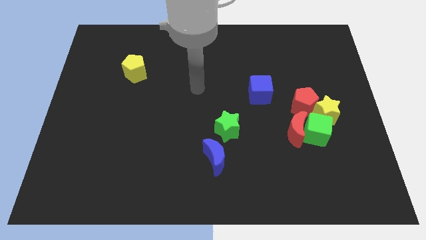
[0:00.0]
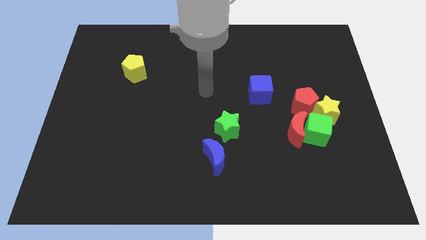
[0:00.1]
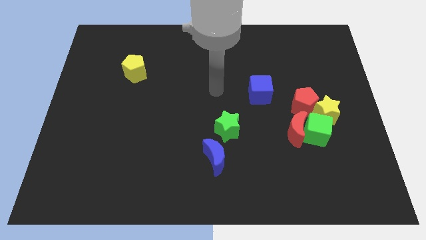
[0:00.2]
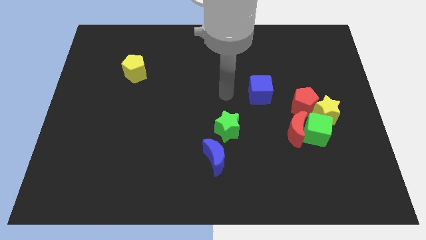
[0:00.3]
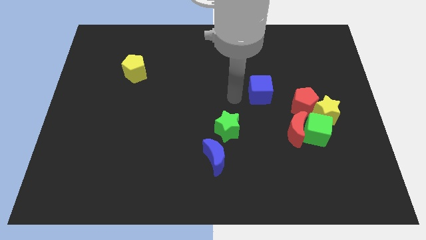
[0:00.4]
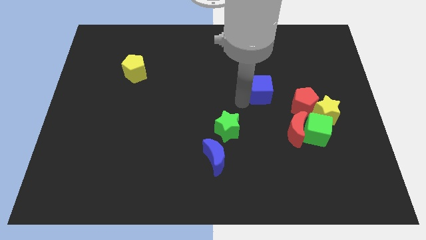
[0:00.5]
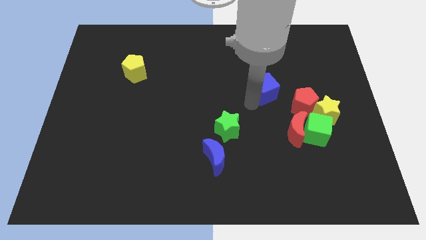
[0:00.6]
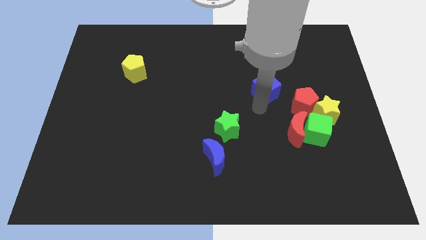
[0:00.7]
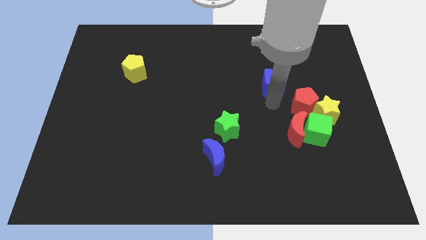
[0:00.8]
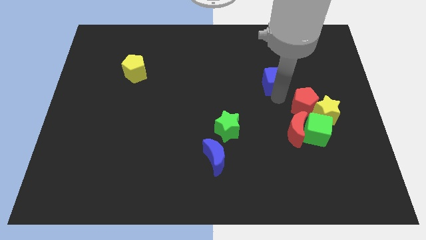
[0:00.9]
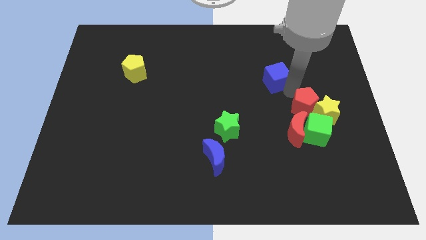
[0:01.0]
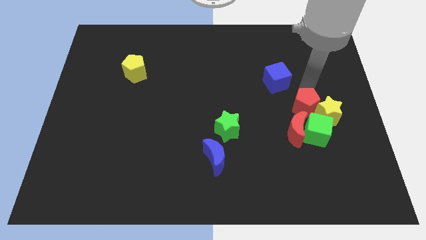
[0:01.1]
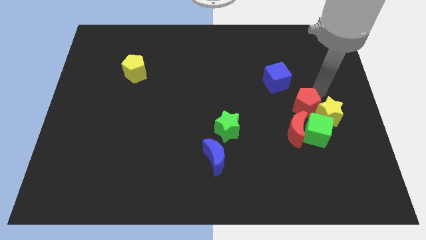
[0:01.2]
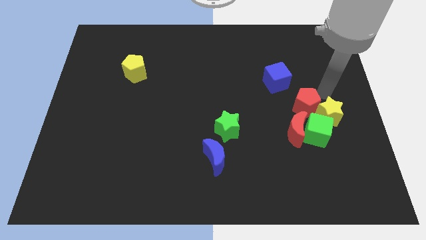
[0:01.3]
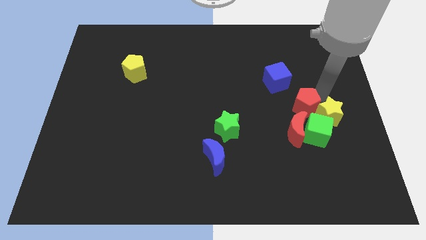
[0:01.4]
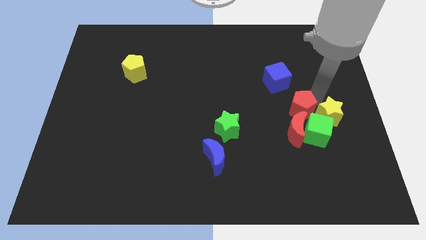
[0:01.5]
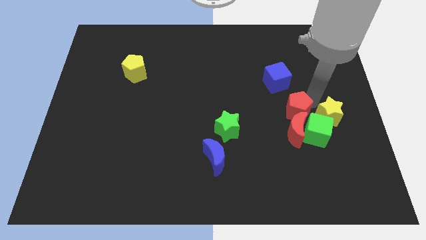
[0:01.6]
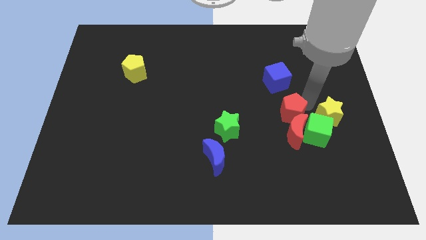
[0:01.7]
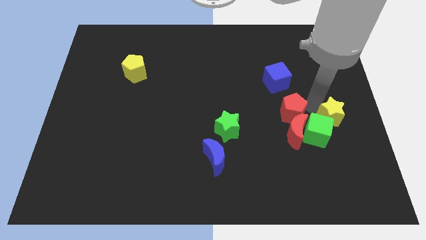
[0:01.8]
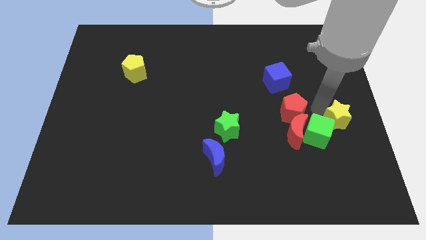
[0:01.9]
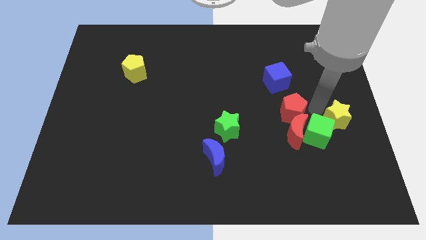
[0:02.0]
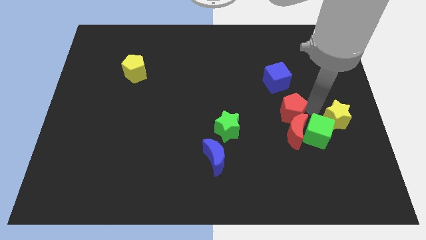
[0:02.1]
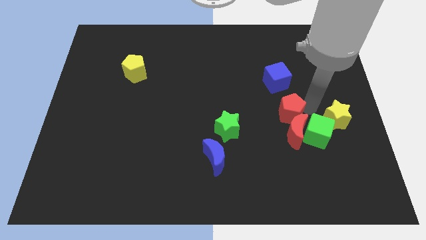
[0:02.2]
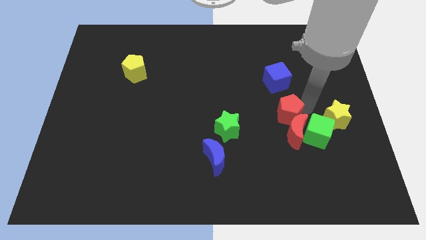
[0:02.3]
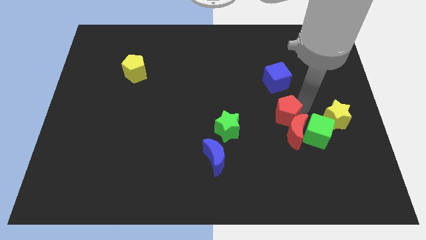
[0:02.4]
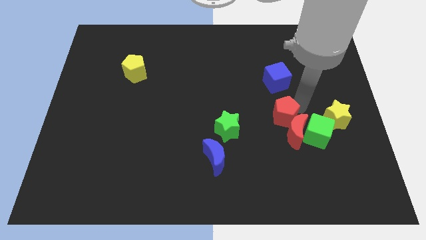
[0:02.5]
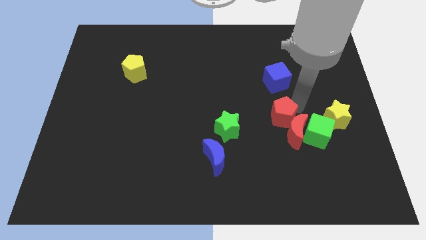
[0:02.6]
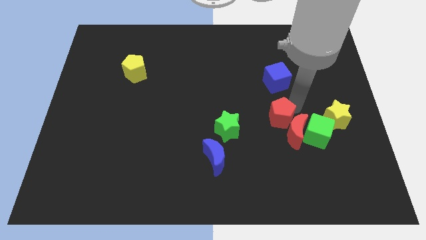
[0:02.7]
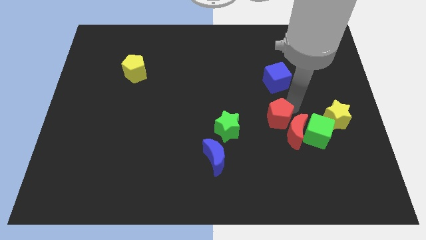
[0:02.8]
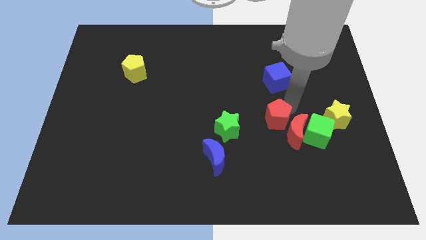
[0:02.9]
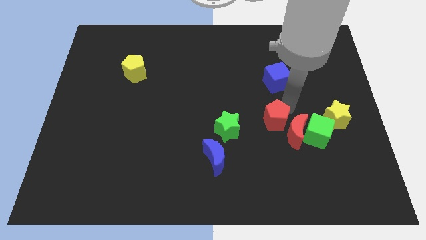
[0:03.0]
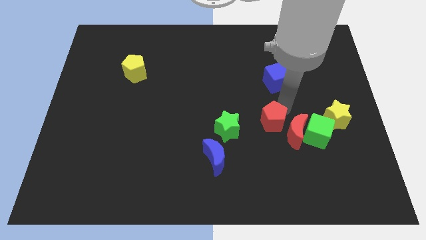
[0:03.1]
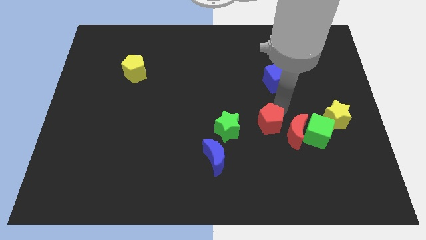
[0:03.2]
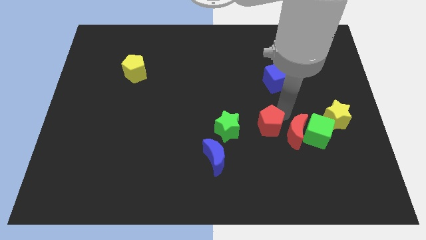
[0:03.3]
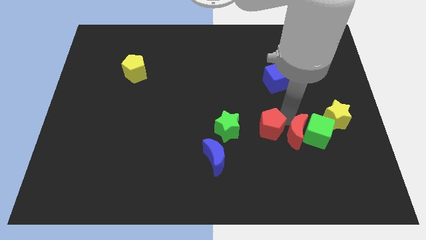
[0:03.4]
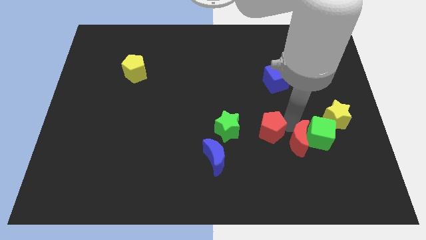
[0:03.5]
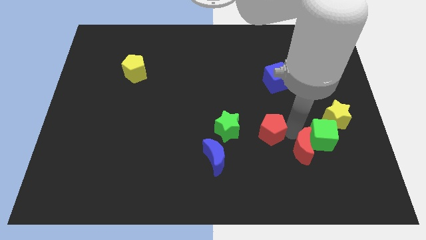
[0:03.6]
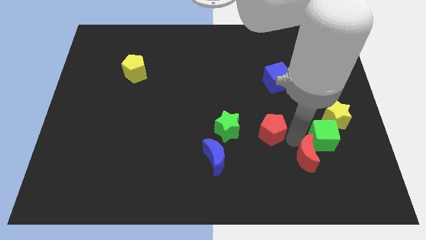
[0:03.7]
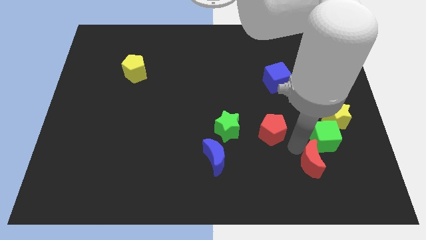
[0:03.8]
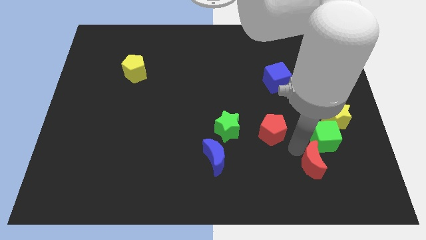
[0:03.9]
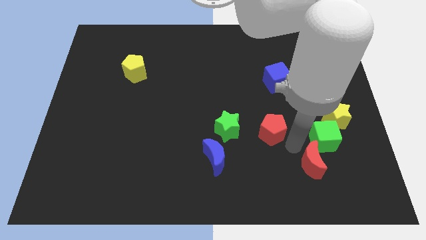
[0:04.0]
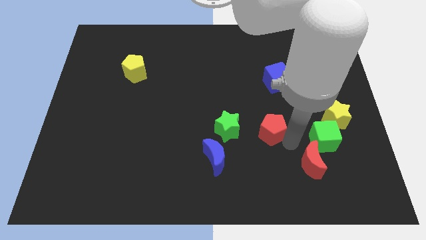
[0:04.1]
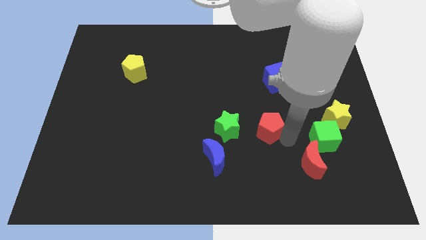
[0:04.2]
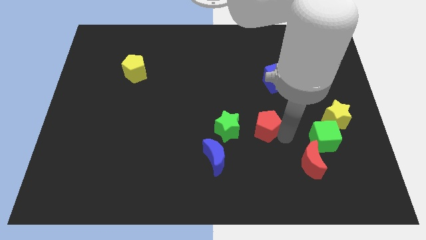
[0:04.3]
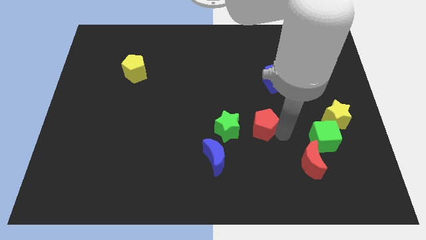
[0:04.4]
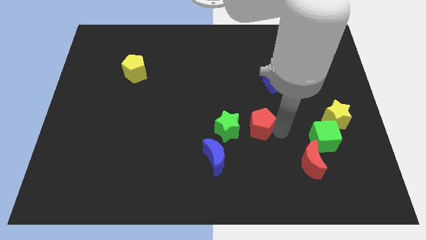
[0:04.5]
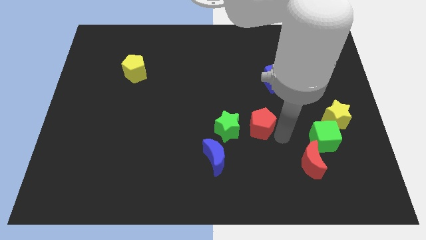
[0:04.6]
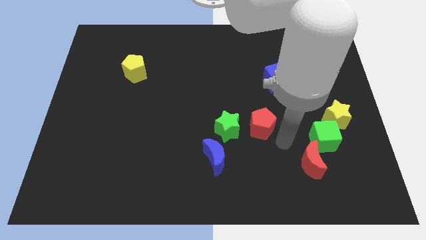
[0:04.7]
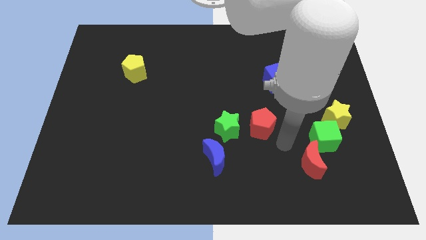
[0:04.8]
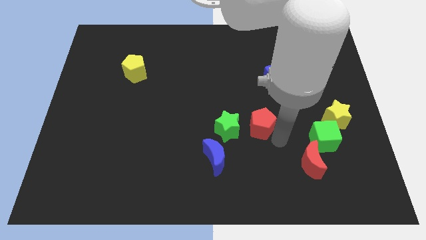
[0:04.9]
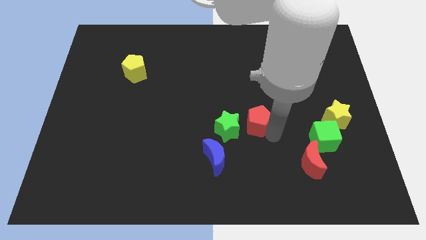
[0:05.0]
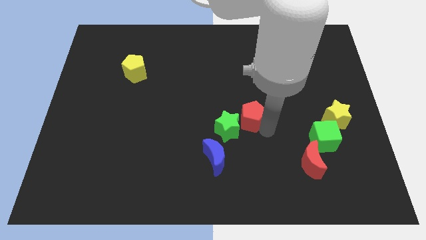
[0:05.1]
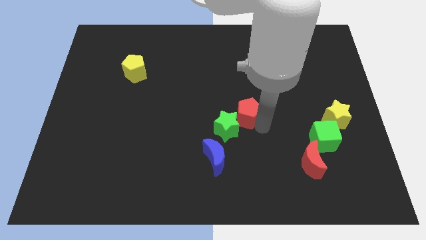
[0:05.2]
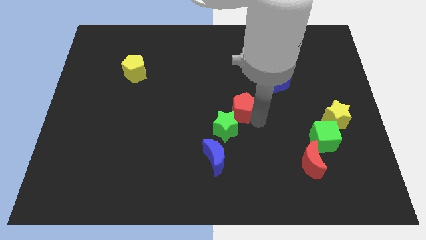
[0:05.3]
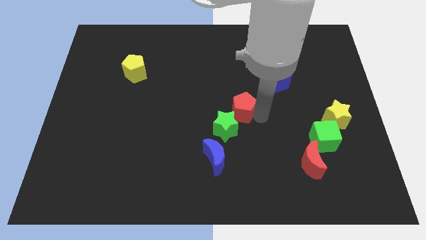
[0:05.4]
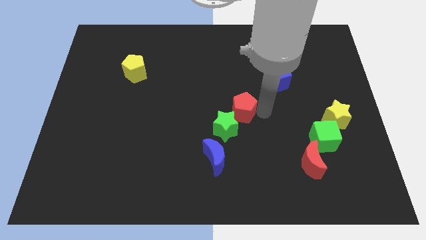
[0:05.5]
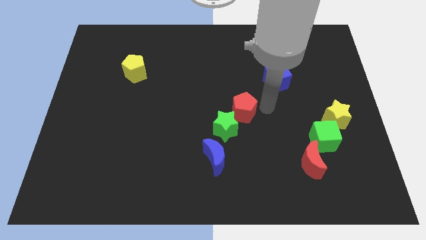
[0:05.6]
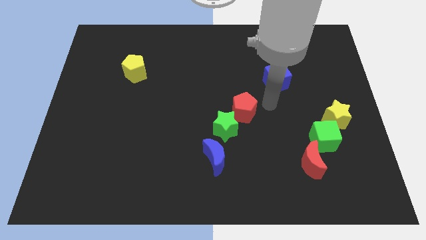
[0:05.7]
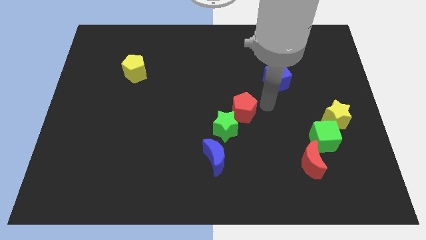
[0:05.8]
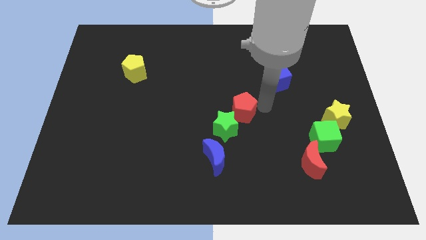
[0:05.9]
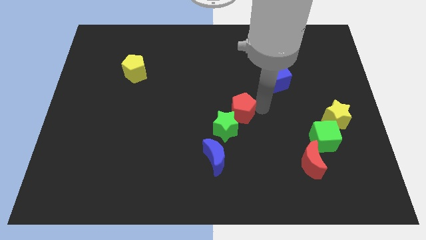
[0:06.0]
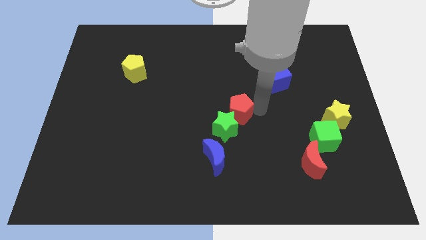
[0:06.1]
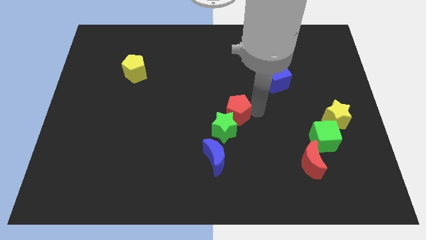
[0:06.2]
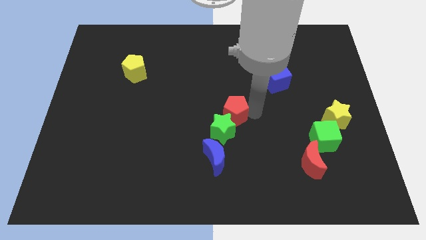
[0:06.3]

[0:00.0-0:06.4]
push the red pentagon to the top side of the blue moon

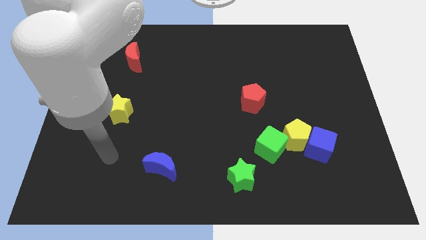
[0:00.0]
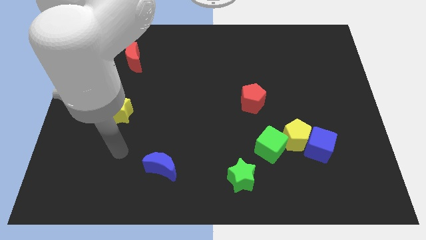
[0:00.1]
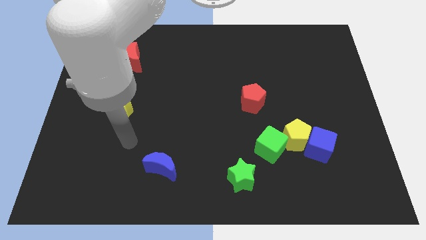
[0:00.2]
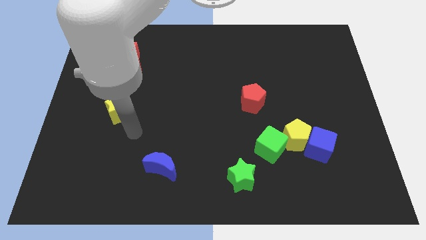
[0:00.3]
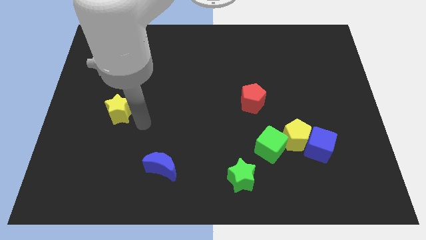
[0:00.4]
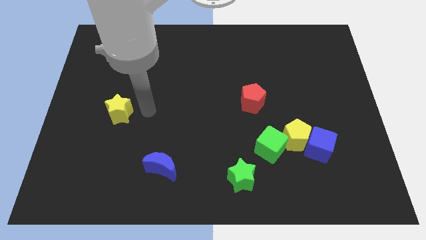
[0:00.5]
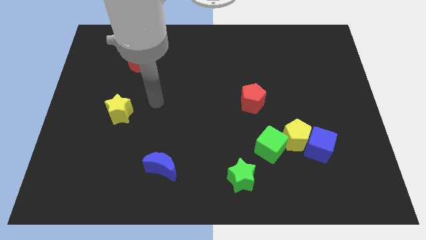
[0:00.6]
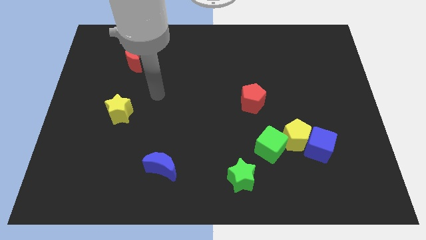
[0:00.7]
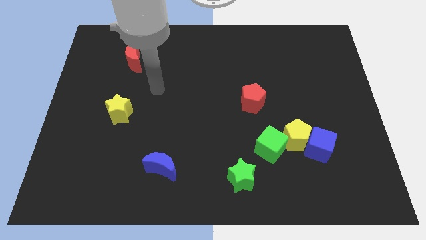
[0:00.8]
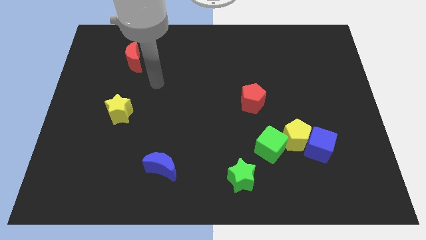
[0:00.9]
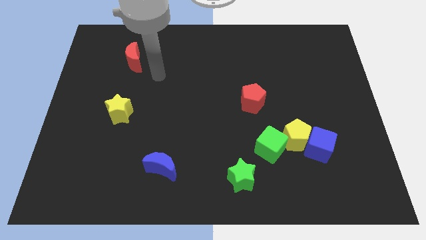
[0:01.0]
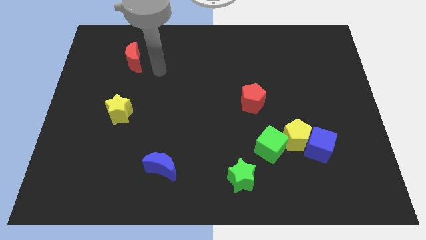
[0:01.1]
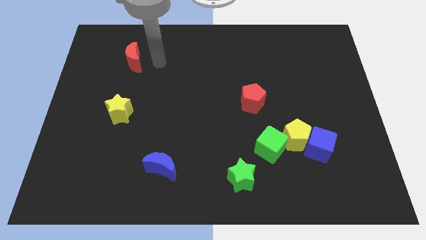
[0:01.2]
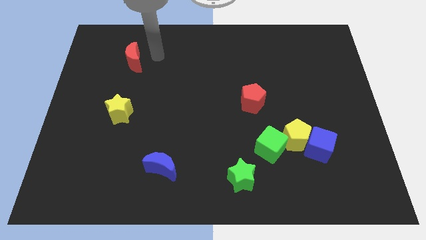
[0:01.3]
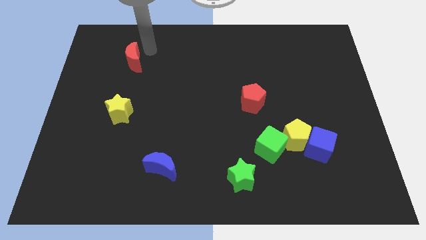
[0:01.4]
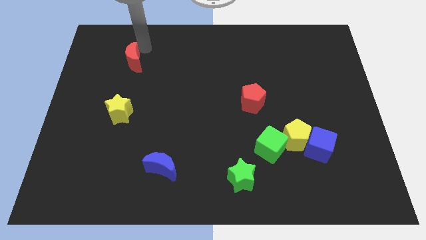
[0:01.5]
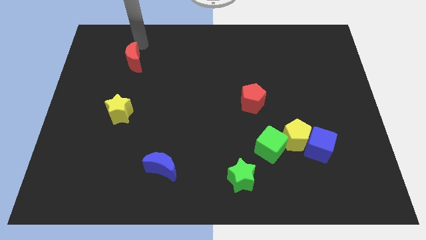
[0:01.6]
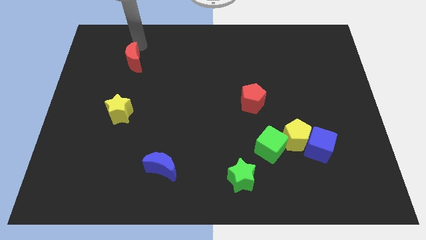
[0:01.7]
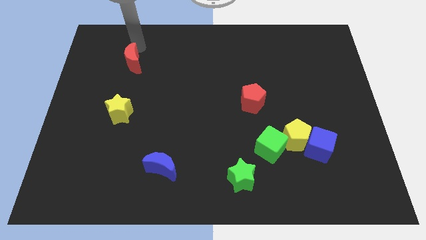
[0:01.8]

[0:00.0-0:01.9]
put the red moon above the yellow star
